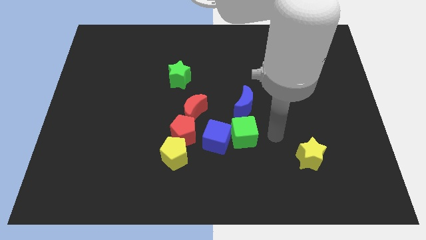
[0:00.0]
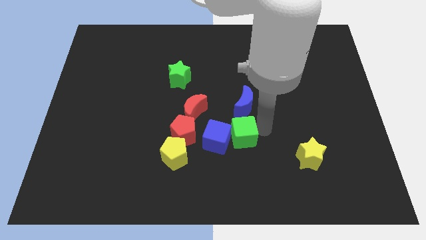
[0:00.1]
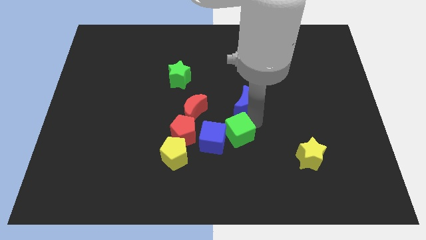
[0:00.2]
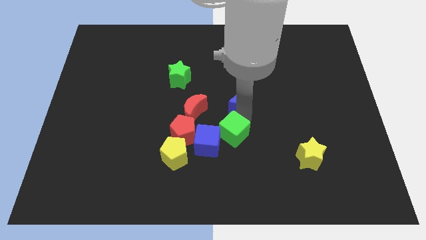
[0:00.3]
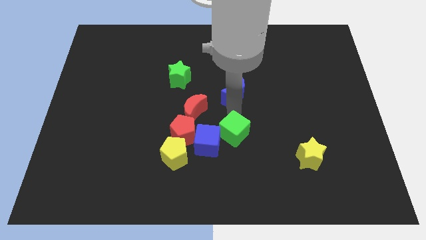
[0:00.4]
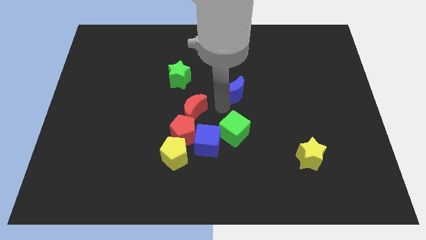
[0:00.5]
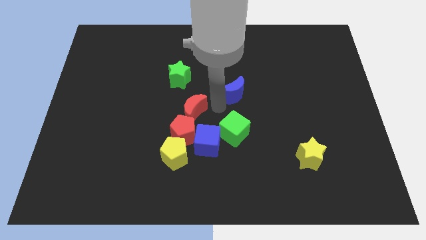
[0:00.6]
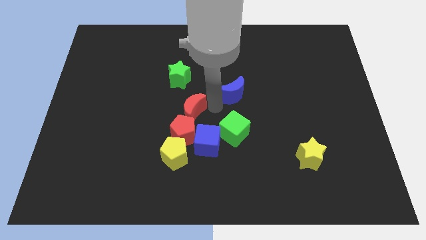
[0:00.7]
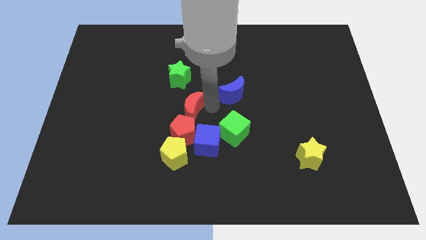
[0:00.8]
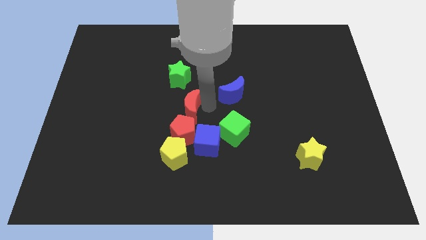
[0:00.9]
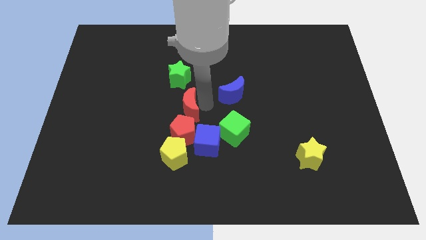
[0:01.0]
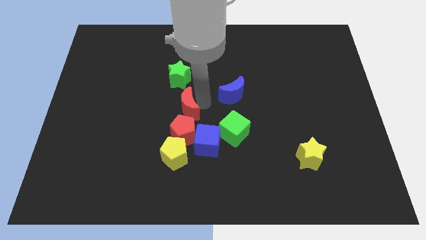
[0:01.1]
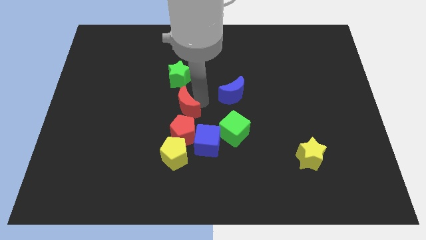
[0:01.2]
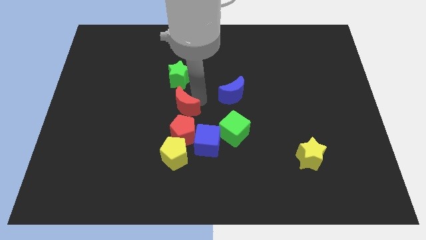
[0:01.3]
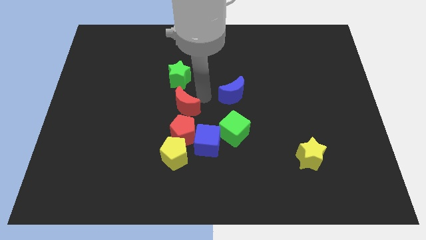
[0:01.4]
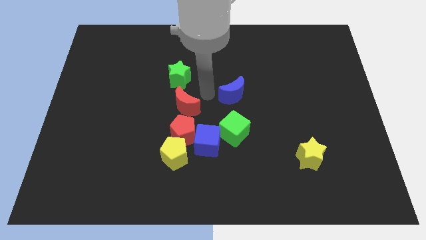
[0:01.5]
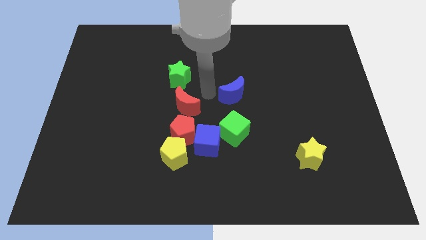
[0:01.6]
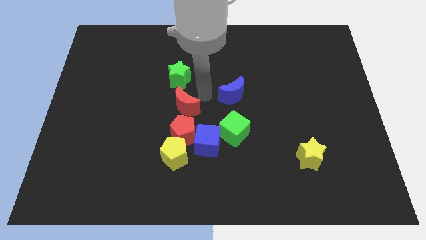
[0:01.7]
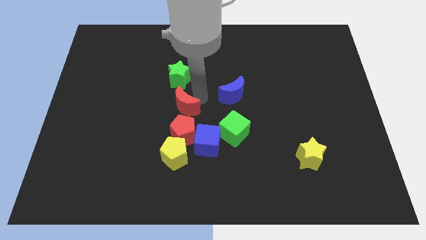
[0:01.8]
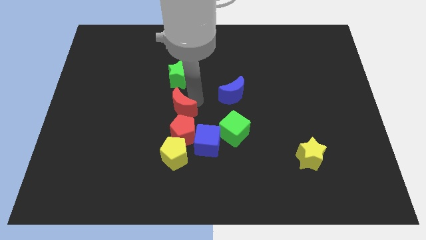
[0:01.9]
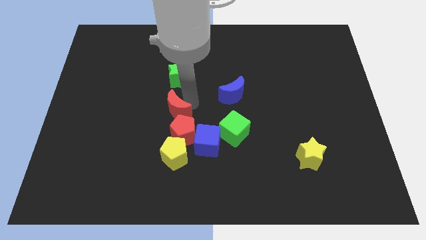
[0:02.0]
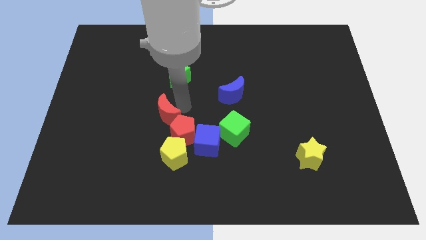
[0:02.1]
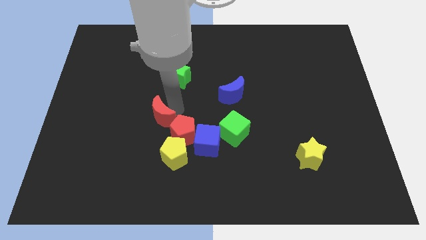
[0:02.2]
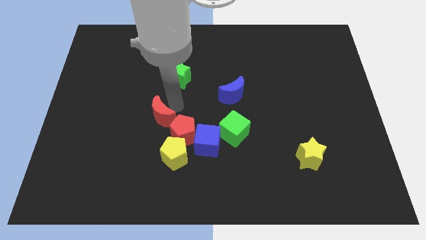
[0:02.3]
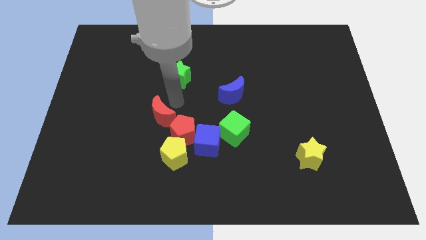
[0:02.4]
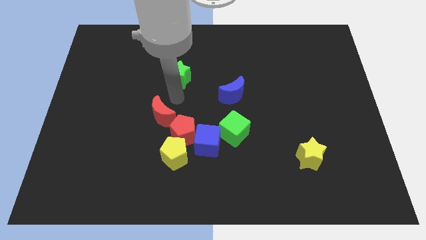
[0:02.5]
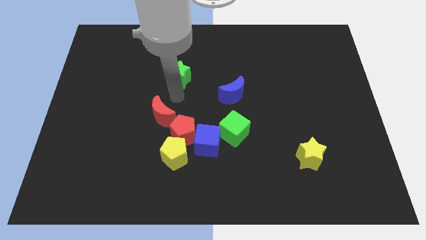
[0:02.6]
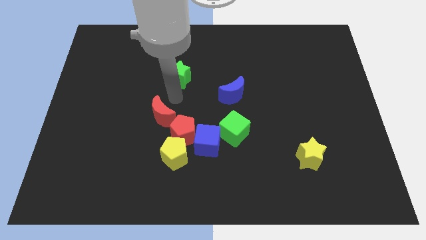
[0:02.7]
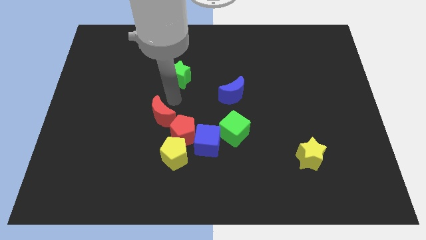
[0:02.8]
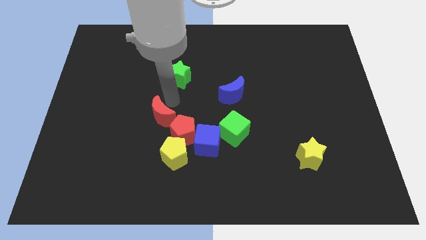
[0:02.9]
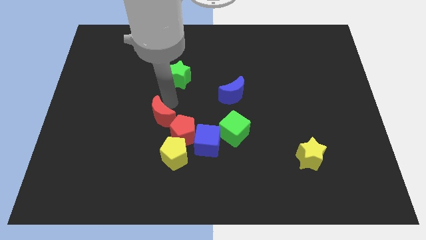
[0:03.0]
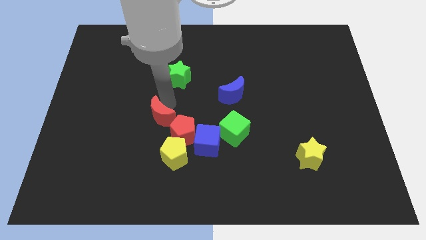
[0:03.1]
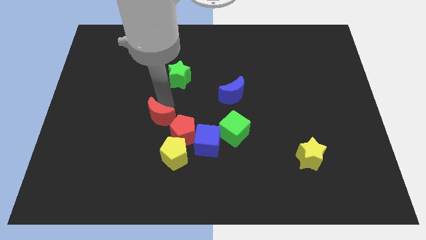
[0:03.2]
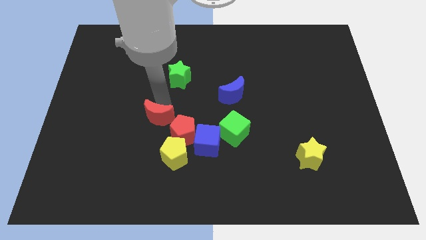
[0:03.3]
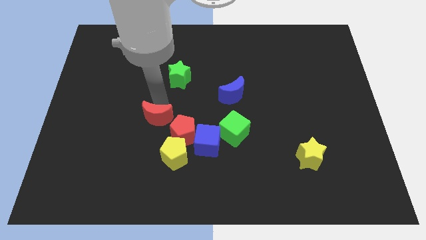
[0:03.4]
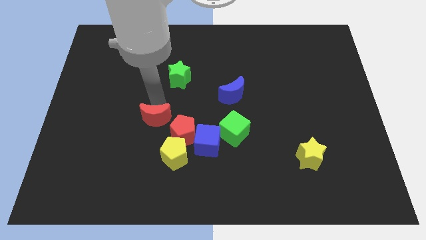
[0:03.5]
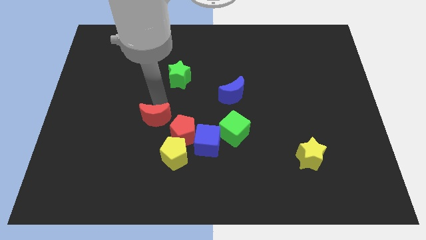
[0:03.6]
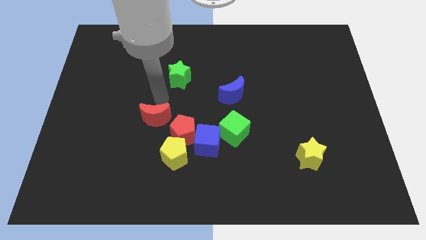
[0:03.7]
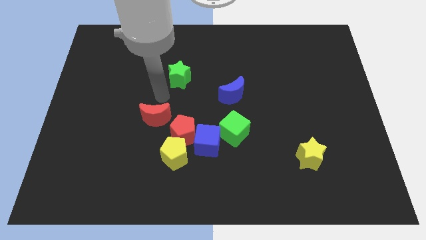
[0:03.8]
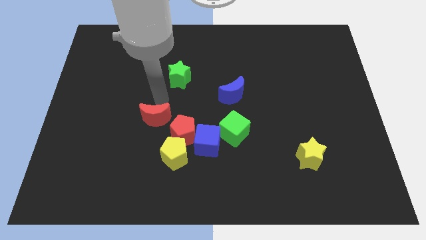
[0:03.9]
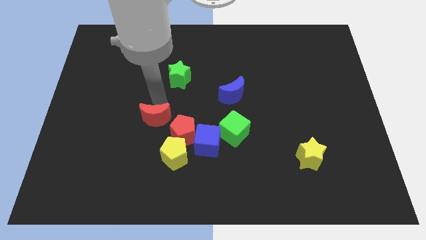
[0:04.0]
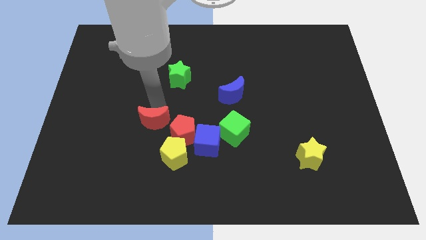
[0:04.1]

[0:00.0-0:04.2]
move the red moon downwards and to the left a bit

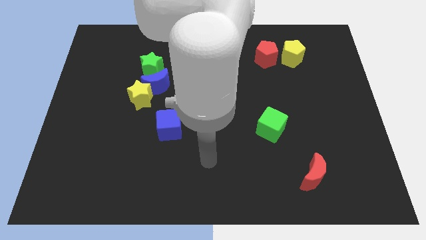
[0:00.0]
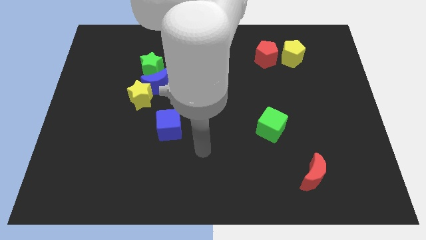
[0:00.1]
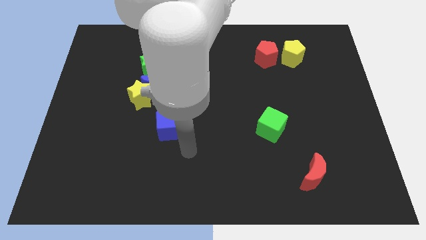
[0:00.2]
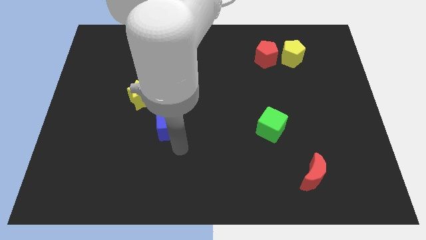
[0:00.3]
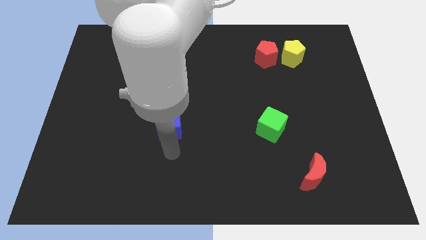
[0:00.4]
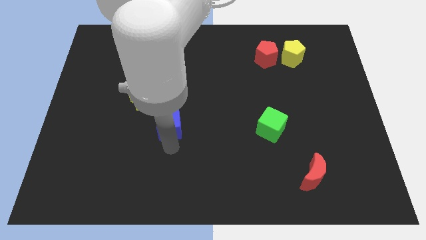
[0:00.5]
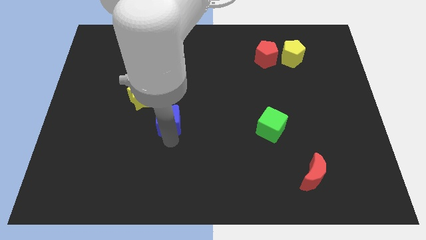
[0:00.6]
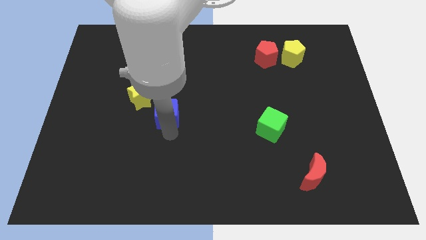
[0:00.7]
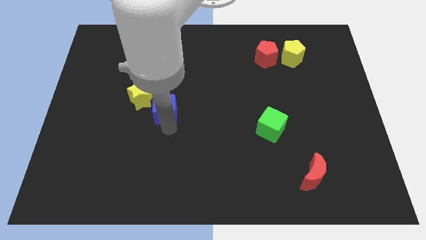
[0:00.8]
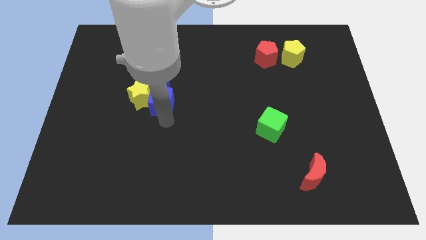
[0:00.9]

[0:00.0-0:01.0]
slide the blue cube slightly up

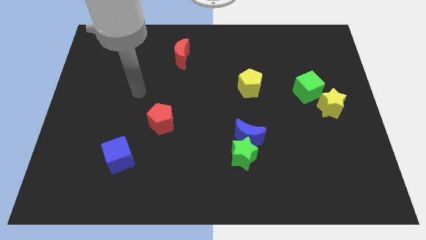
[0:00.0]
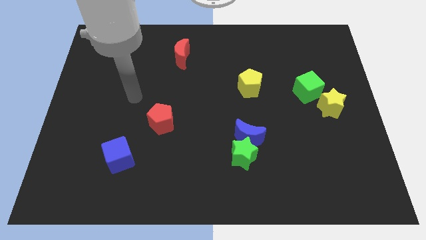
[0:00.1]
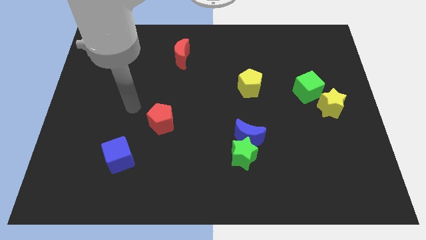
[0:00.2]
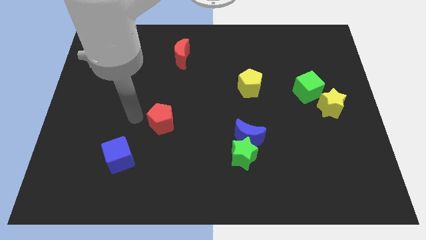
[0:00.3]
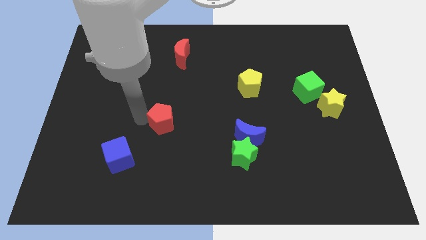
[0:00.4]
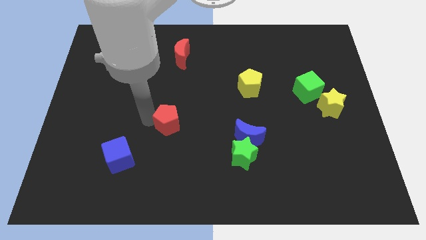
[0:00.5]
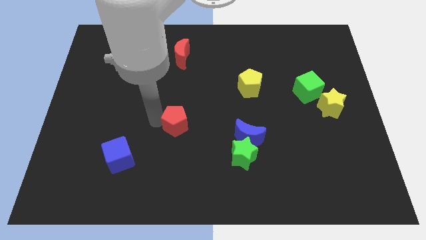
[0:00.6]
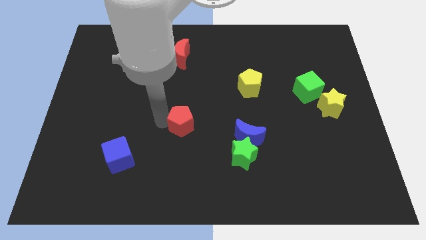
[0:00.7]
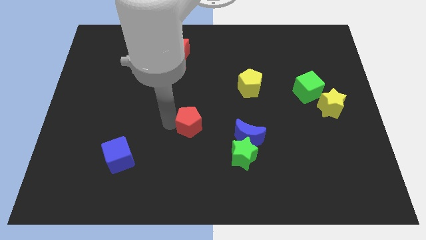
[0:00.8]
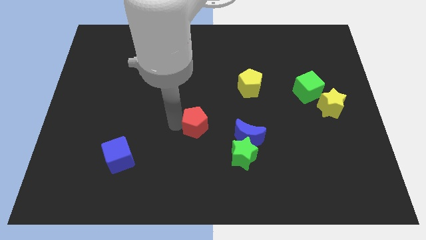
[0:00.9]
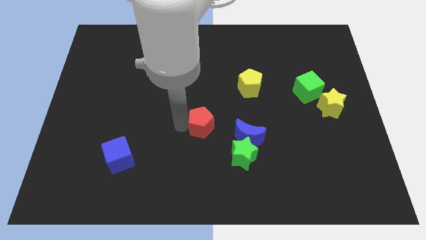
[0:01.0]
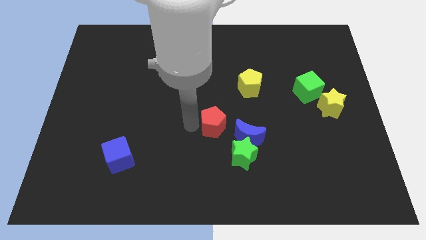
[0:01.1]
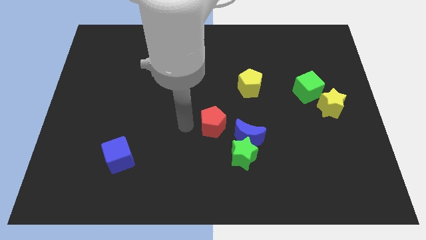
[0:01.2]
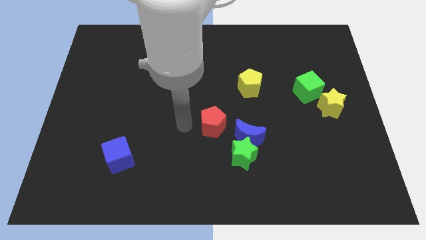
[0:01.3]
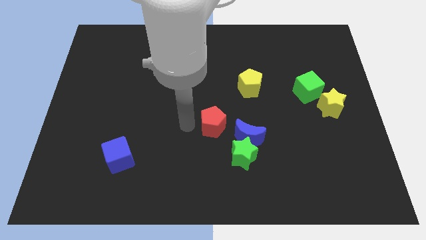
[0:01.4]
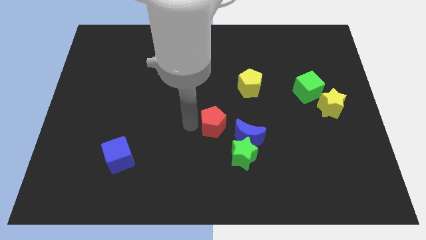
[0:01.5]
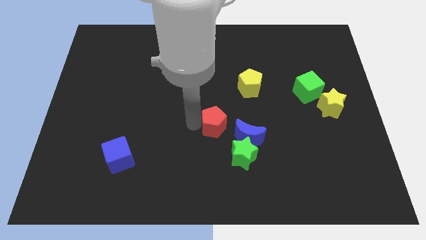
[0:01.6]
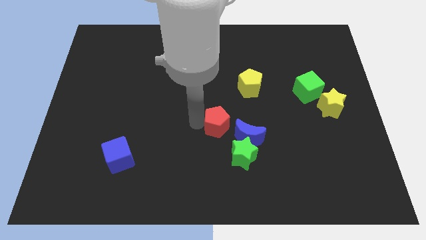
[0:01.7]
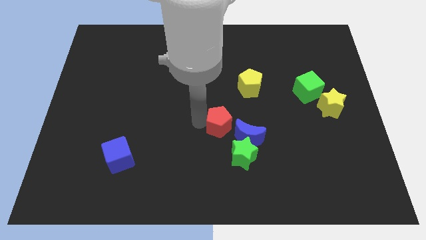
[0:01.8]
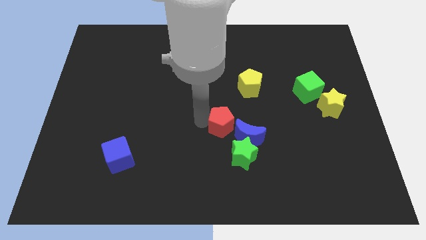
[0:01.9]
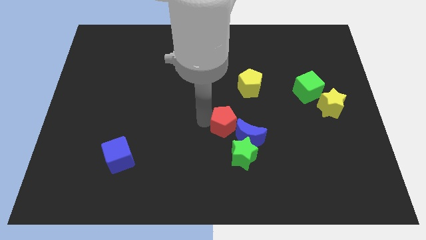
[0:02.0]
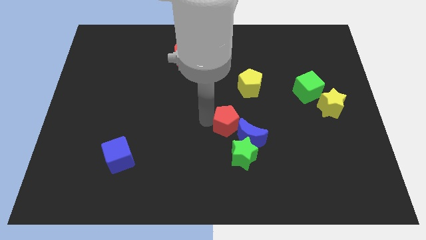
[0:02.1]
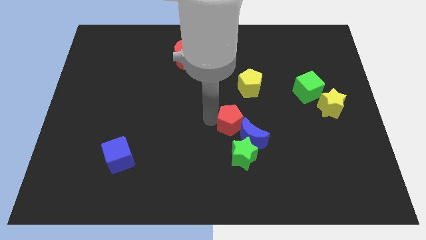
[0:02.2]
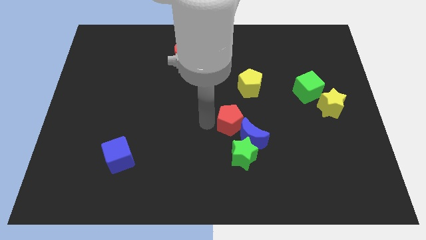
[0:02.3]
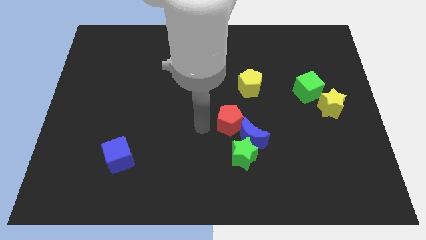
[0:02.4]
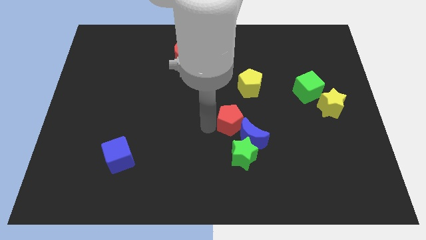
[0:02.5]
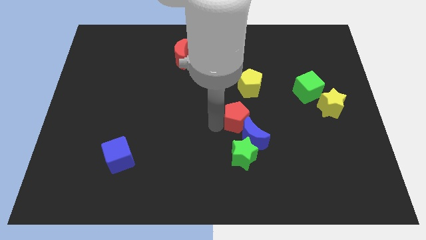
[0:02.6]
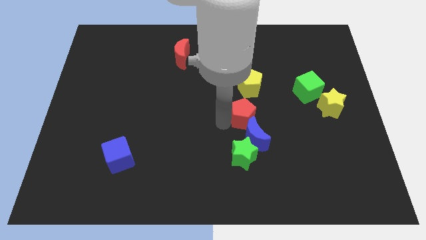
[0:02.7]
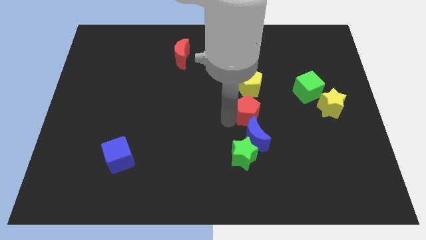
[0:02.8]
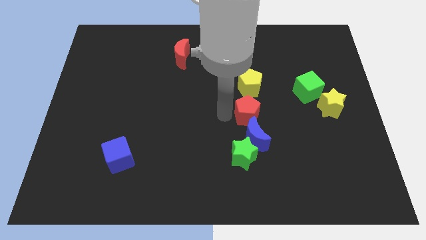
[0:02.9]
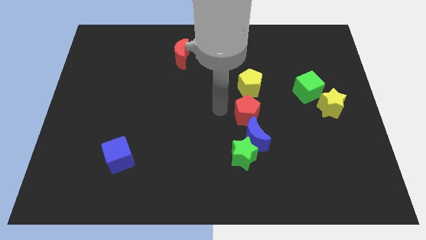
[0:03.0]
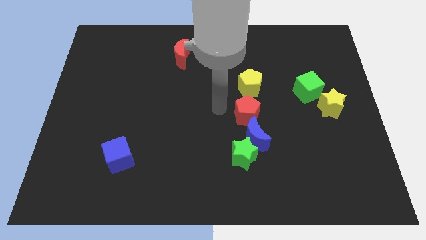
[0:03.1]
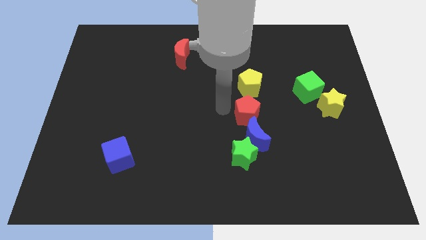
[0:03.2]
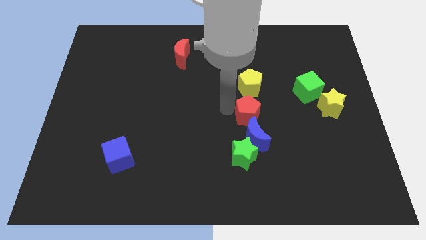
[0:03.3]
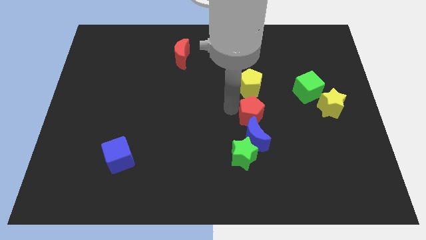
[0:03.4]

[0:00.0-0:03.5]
push the red pentagon to the right

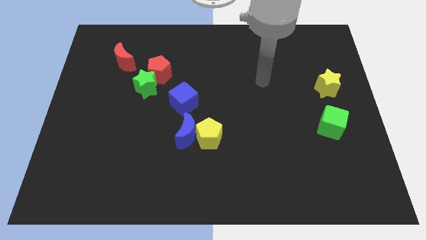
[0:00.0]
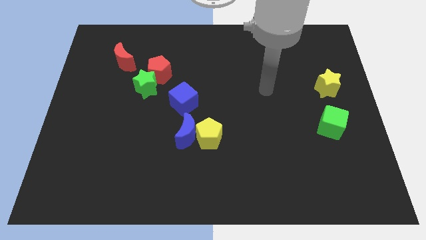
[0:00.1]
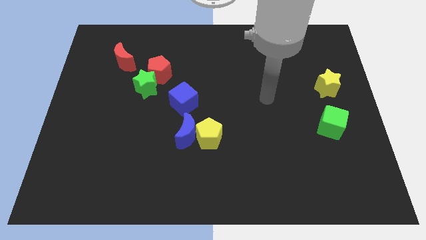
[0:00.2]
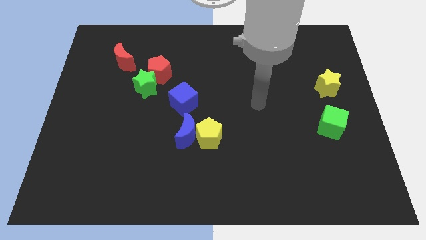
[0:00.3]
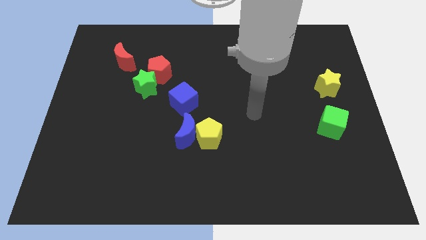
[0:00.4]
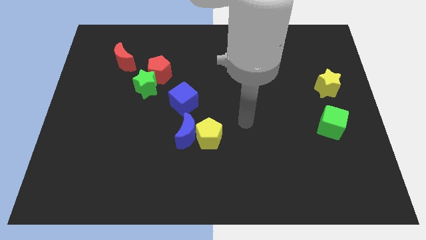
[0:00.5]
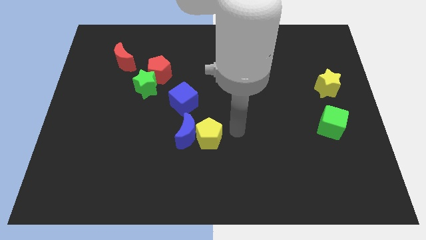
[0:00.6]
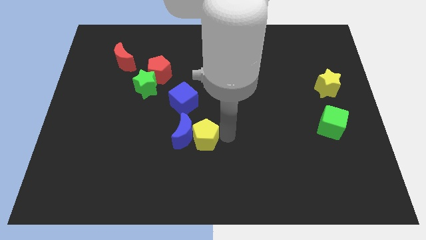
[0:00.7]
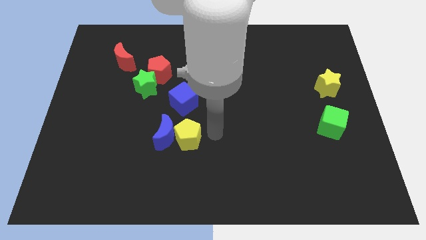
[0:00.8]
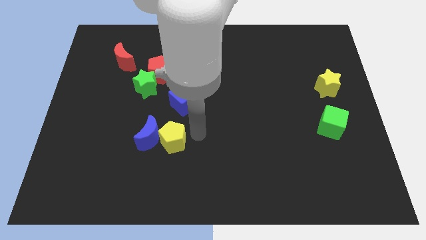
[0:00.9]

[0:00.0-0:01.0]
slide the blue moon a little bit left
